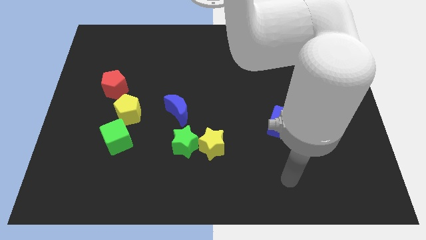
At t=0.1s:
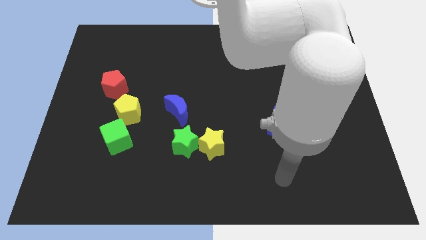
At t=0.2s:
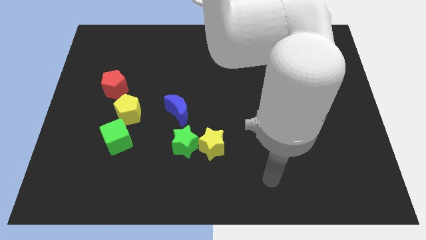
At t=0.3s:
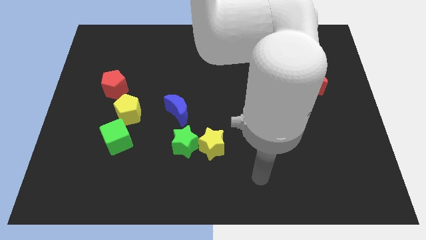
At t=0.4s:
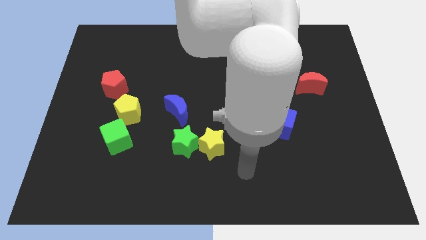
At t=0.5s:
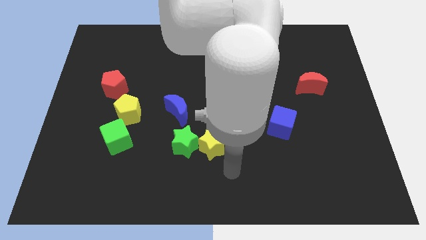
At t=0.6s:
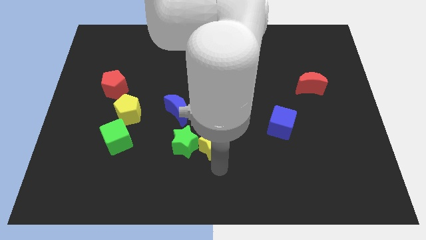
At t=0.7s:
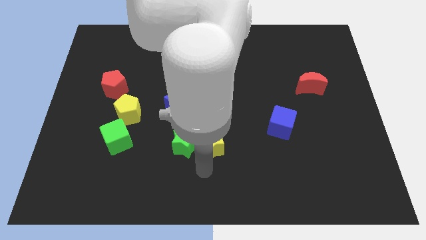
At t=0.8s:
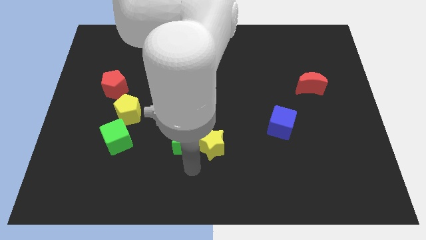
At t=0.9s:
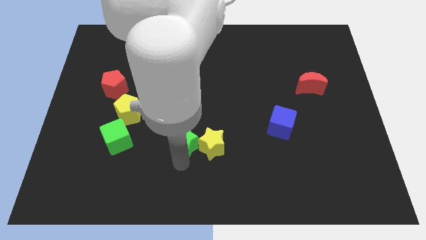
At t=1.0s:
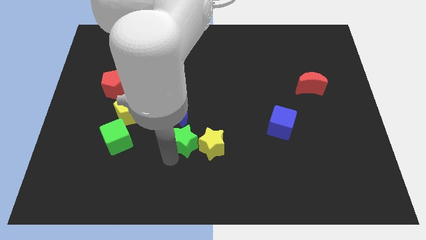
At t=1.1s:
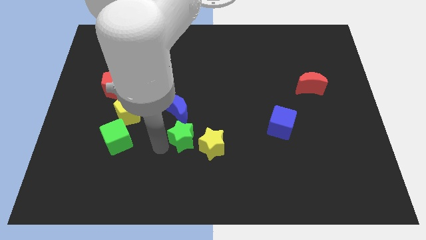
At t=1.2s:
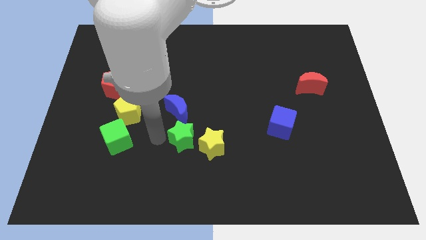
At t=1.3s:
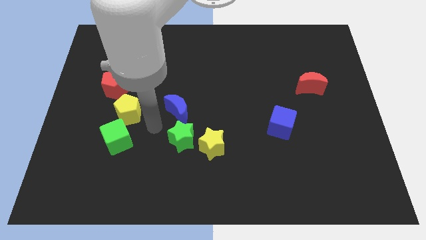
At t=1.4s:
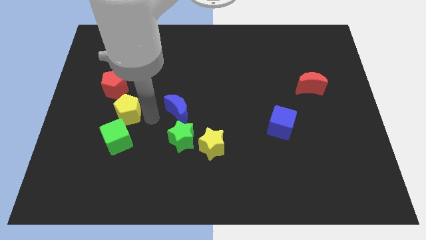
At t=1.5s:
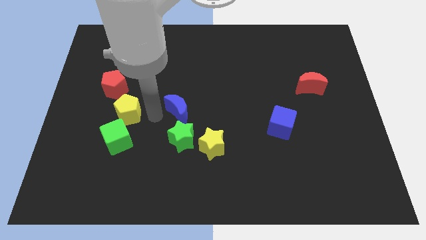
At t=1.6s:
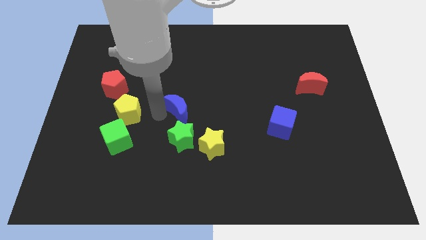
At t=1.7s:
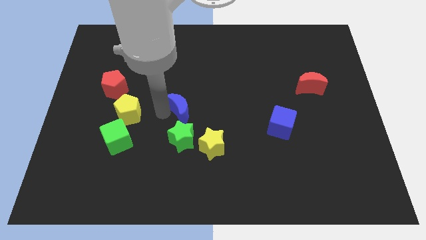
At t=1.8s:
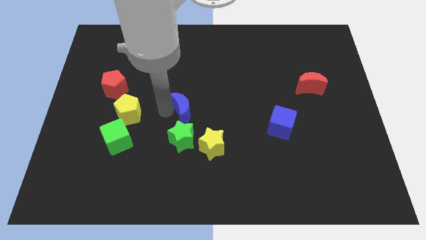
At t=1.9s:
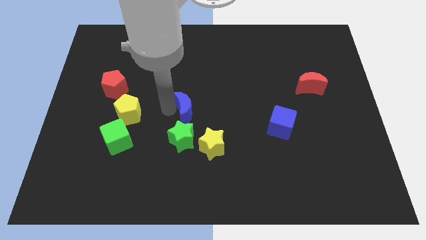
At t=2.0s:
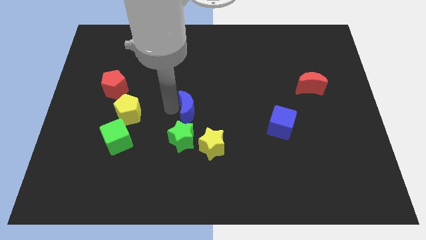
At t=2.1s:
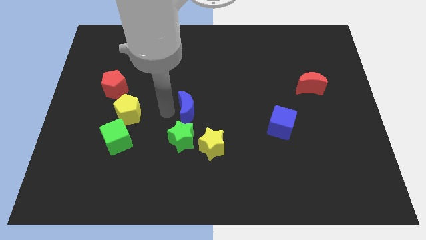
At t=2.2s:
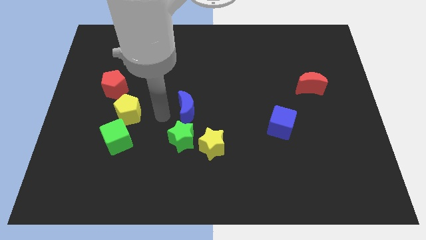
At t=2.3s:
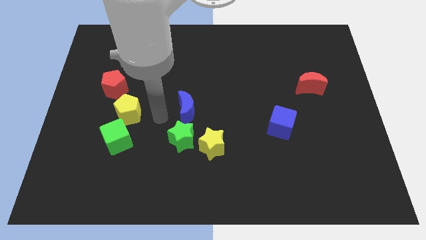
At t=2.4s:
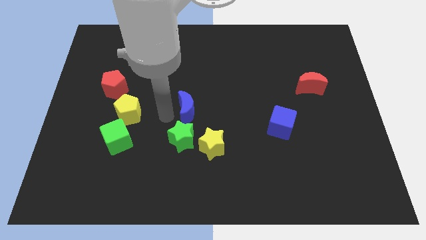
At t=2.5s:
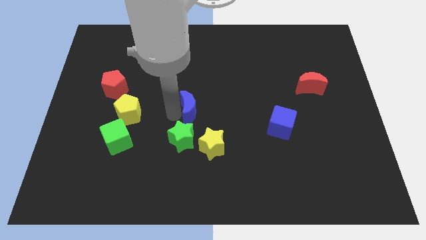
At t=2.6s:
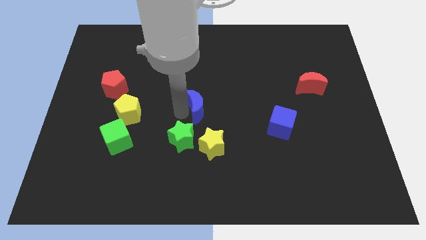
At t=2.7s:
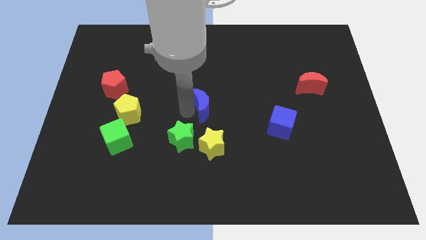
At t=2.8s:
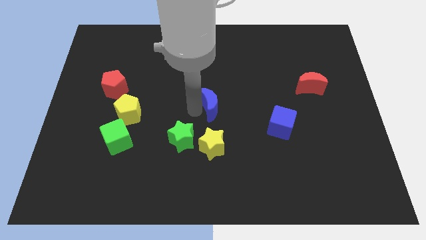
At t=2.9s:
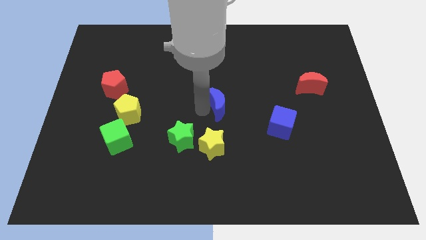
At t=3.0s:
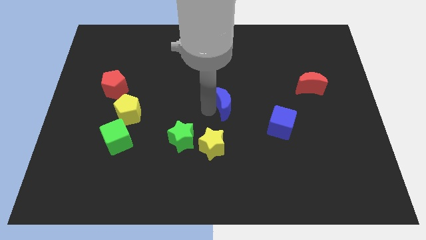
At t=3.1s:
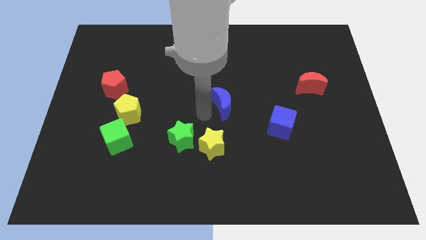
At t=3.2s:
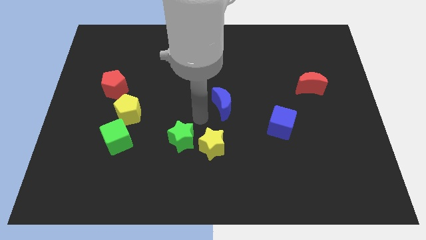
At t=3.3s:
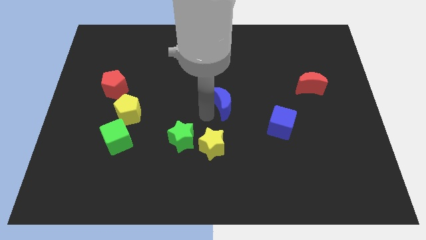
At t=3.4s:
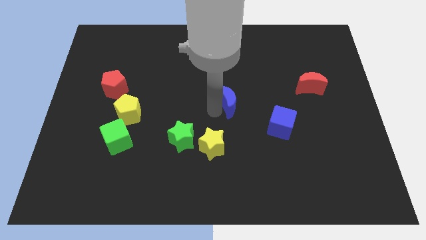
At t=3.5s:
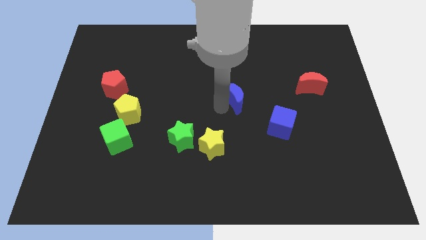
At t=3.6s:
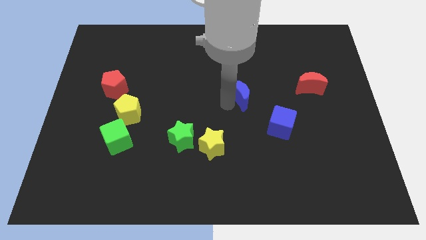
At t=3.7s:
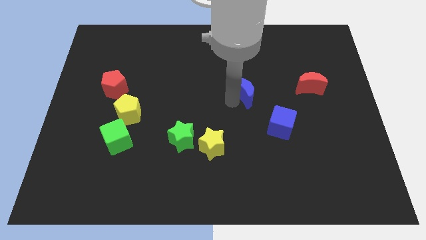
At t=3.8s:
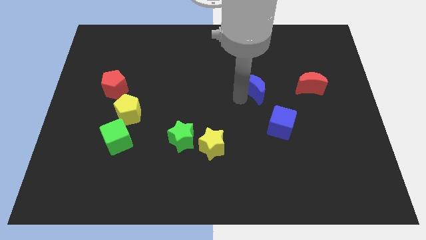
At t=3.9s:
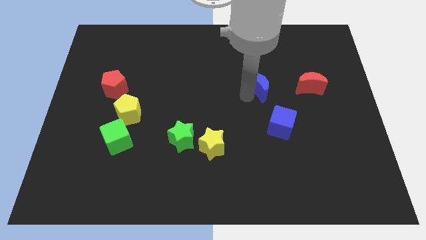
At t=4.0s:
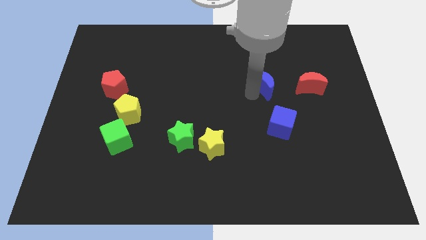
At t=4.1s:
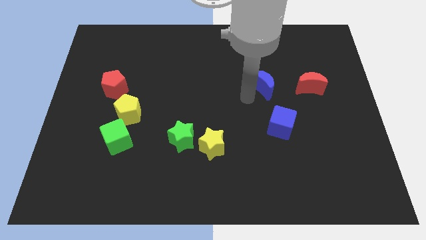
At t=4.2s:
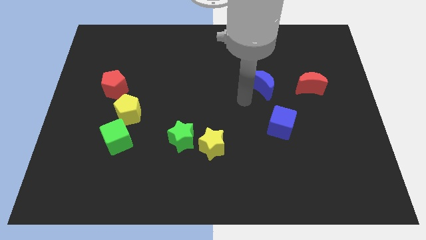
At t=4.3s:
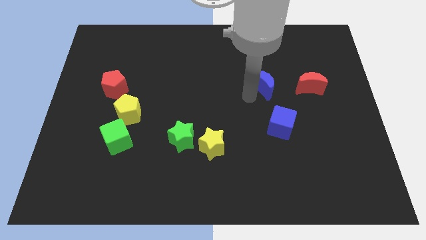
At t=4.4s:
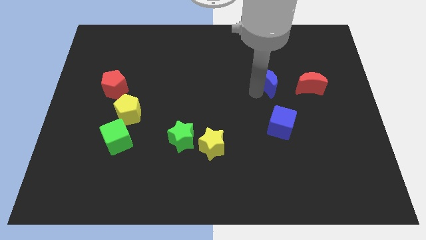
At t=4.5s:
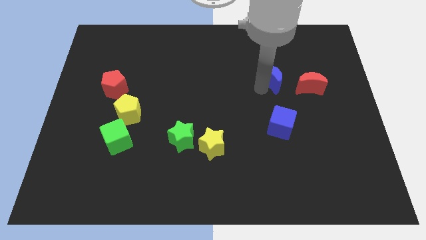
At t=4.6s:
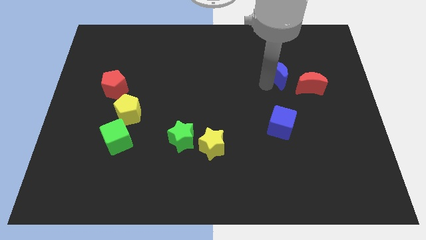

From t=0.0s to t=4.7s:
slide the blue moon diagonally up and to the left of the red moon

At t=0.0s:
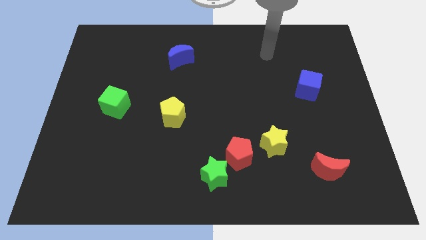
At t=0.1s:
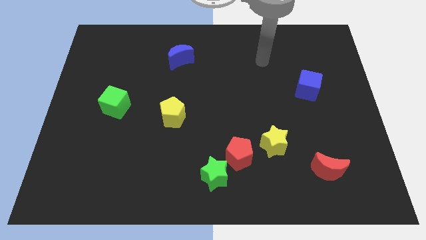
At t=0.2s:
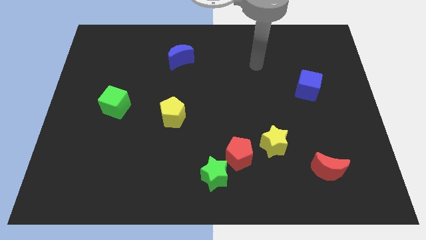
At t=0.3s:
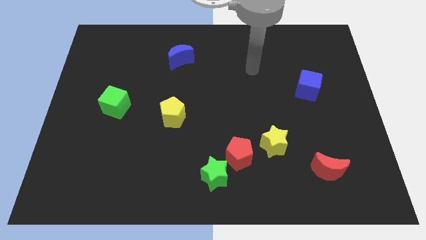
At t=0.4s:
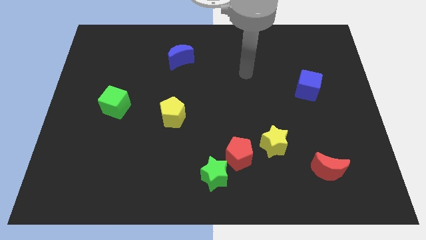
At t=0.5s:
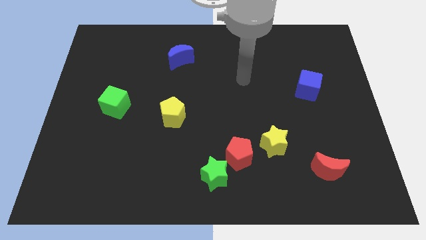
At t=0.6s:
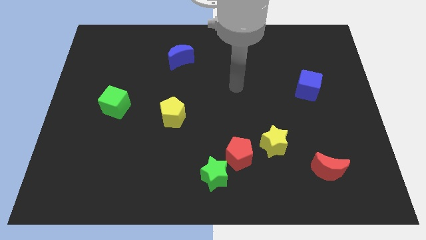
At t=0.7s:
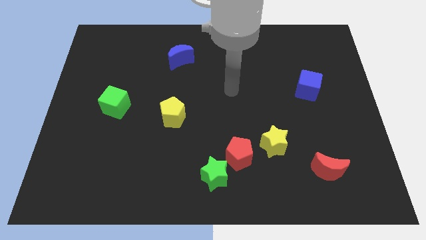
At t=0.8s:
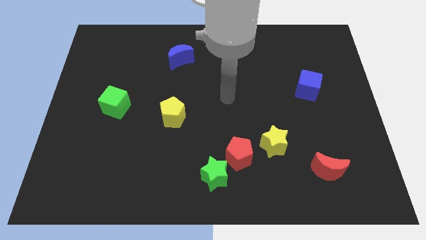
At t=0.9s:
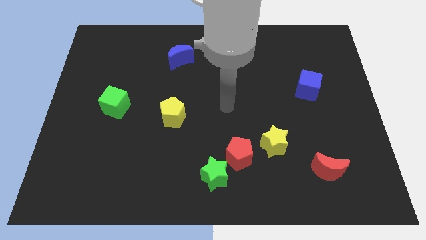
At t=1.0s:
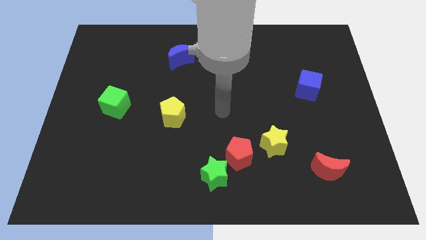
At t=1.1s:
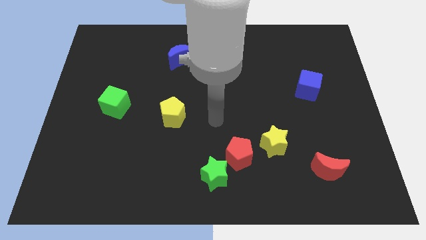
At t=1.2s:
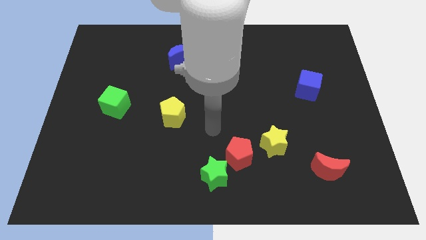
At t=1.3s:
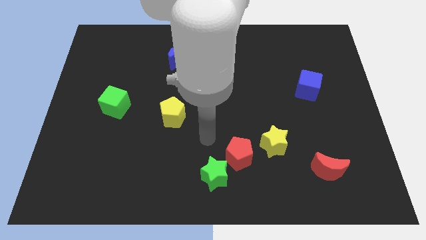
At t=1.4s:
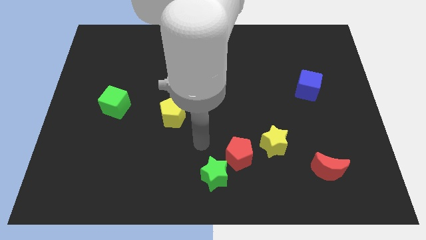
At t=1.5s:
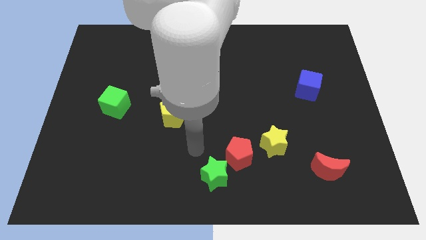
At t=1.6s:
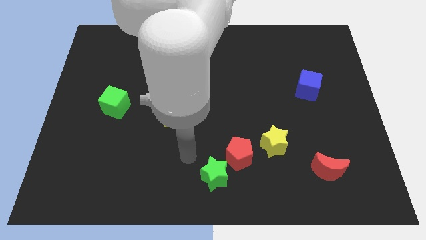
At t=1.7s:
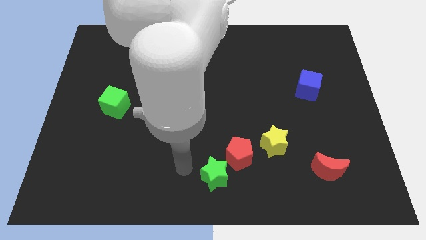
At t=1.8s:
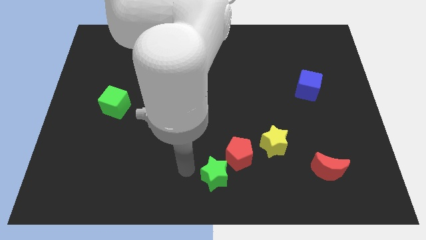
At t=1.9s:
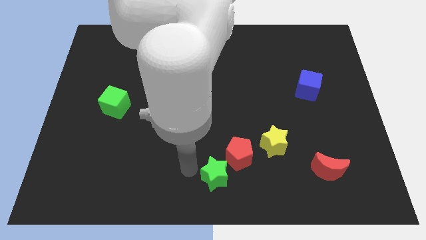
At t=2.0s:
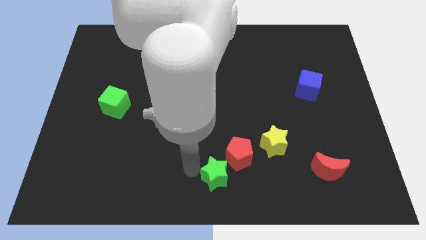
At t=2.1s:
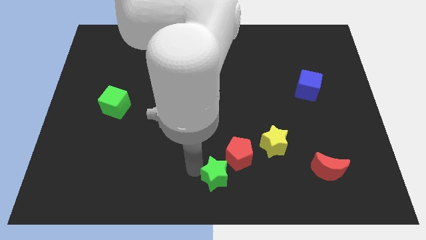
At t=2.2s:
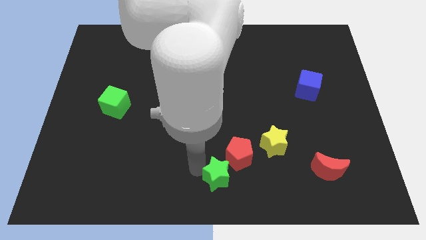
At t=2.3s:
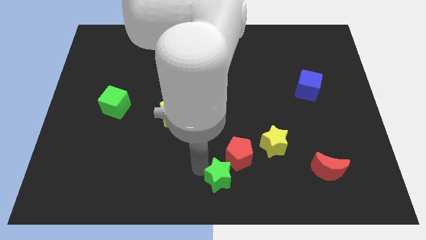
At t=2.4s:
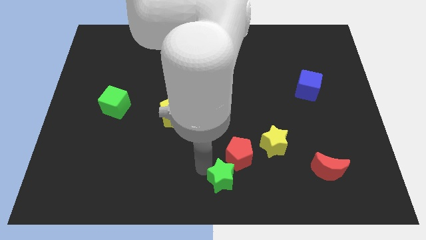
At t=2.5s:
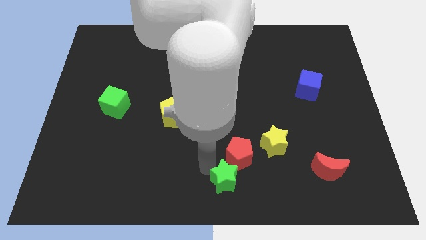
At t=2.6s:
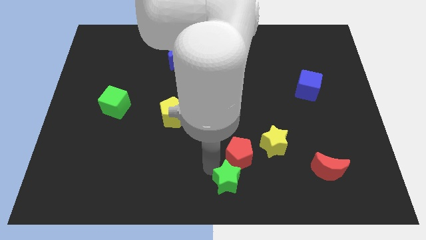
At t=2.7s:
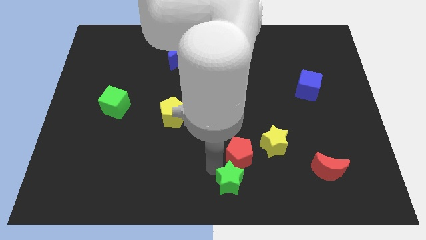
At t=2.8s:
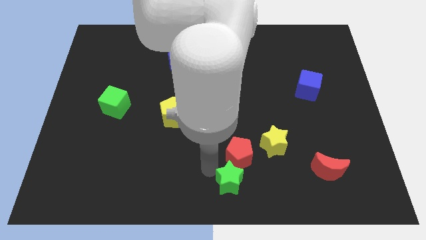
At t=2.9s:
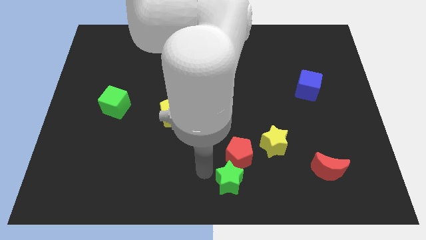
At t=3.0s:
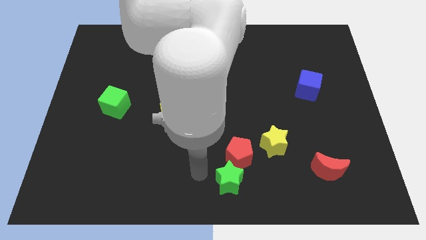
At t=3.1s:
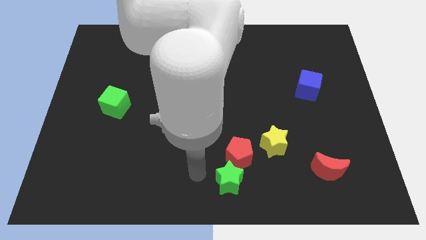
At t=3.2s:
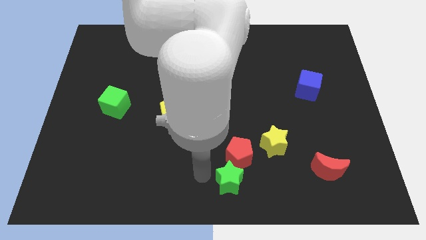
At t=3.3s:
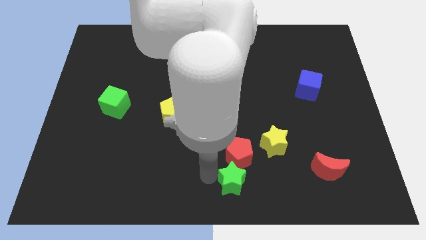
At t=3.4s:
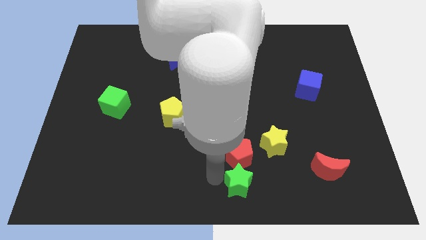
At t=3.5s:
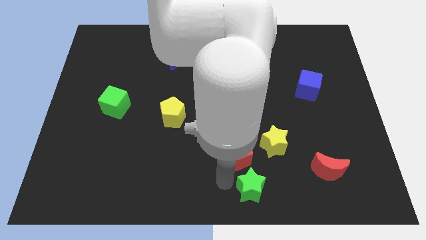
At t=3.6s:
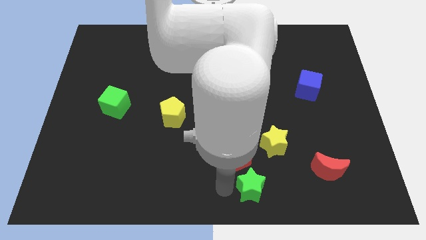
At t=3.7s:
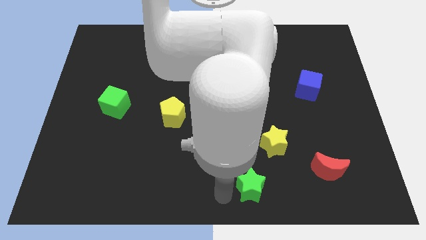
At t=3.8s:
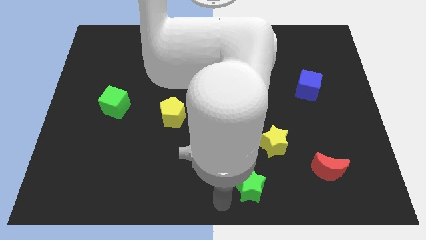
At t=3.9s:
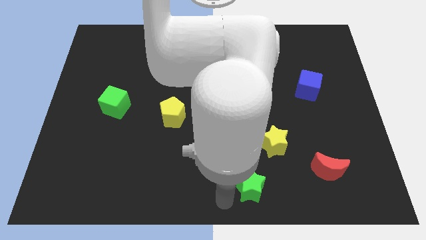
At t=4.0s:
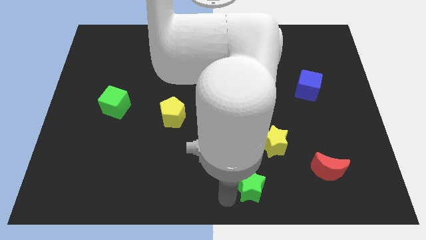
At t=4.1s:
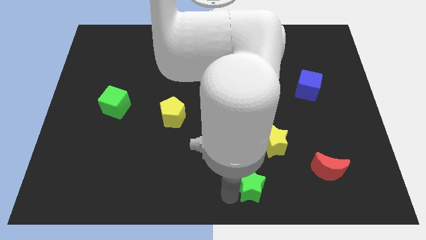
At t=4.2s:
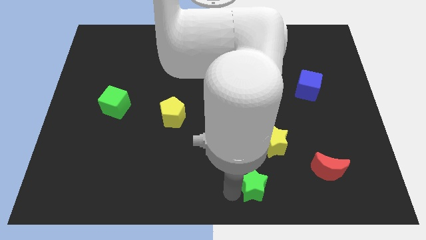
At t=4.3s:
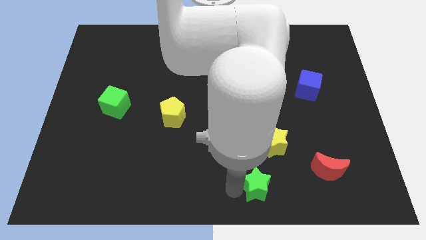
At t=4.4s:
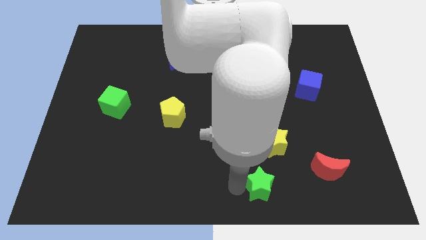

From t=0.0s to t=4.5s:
slide the green star to the left of the red moon
